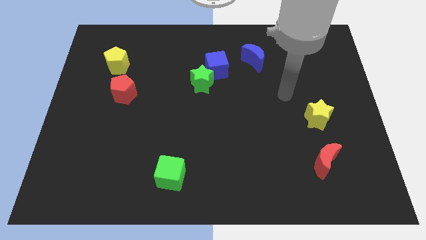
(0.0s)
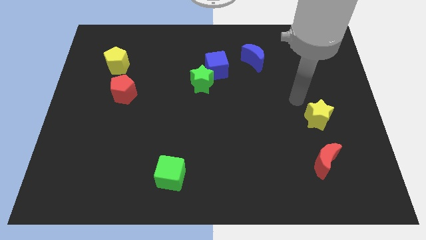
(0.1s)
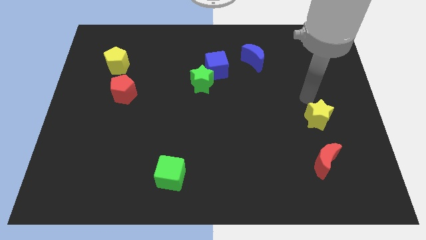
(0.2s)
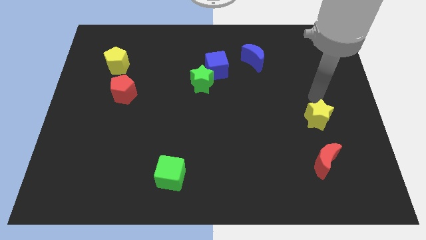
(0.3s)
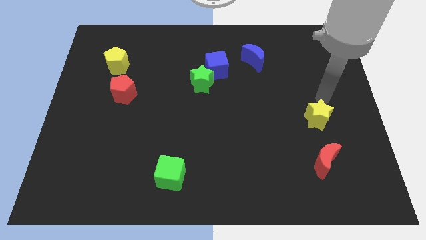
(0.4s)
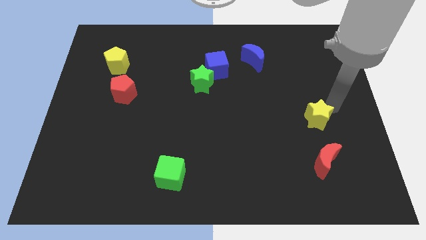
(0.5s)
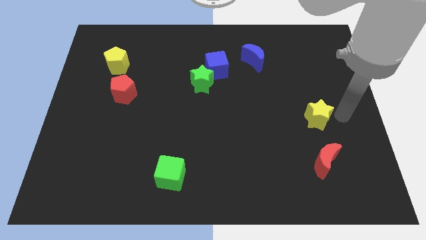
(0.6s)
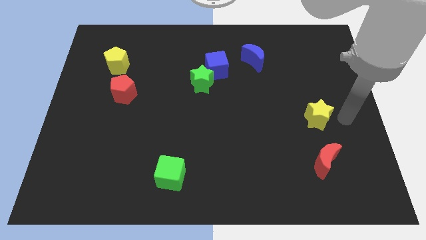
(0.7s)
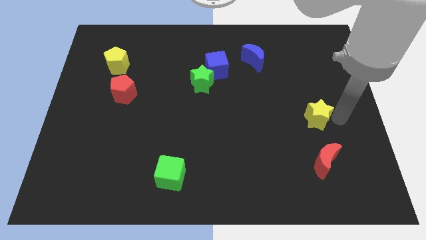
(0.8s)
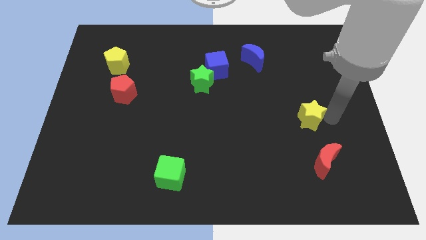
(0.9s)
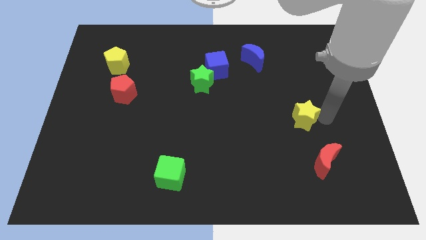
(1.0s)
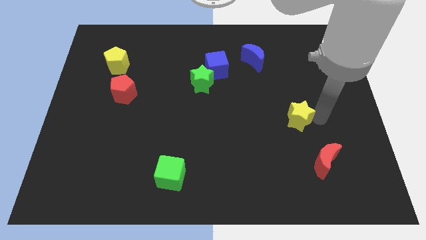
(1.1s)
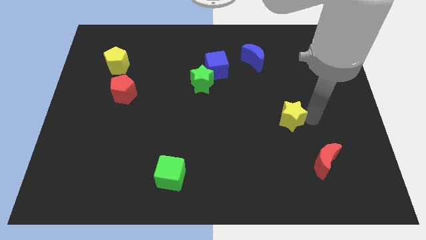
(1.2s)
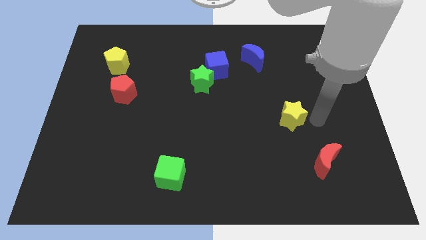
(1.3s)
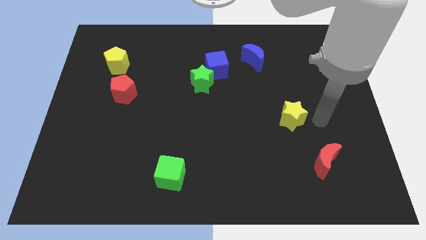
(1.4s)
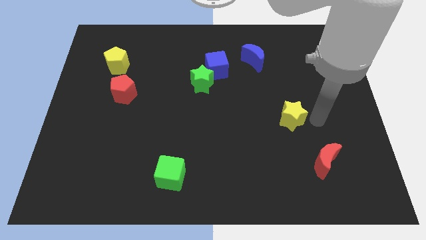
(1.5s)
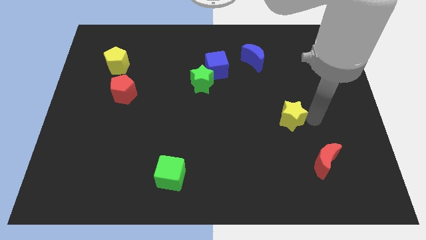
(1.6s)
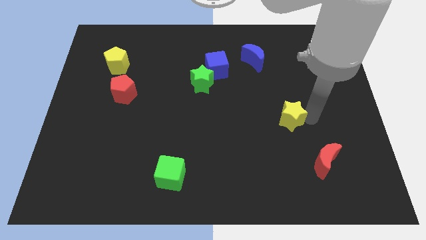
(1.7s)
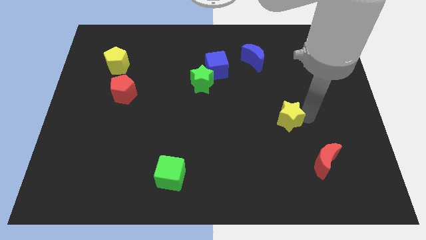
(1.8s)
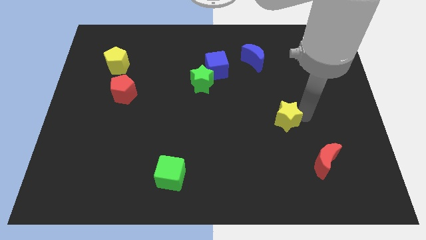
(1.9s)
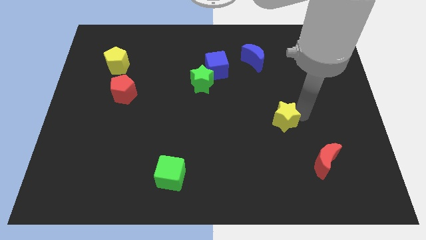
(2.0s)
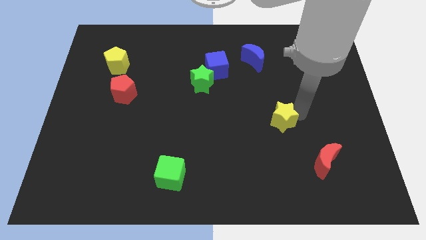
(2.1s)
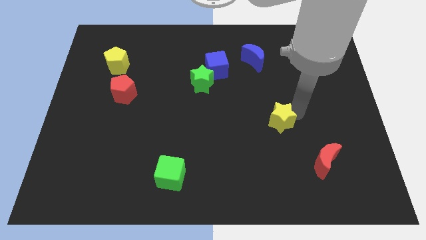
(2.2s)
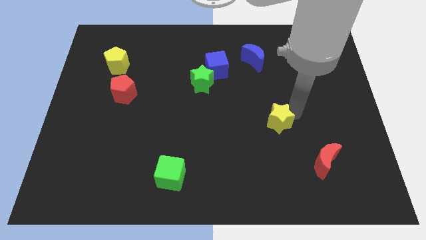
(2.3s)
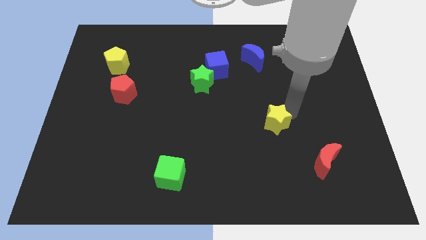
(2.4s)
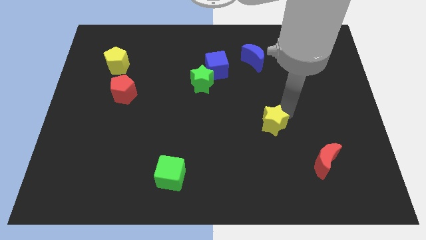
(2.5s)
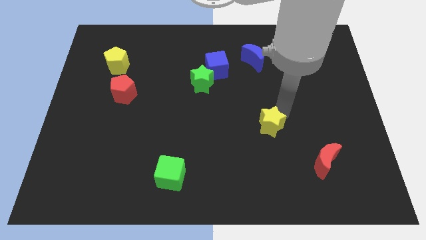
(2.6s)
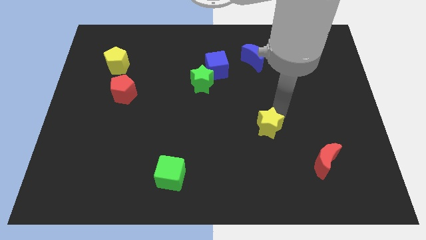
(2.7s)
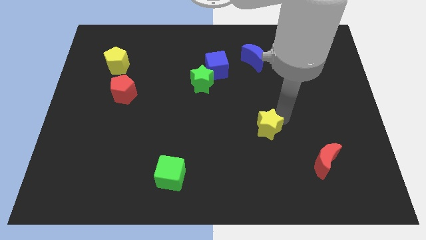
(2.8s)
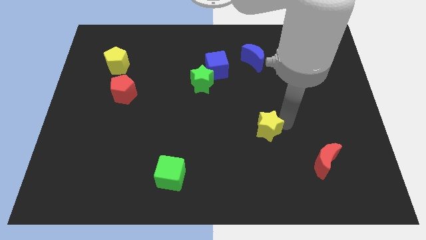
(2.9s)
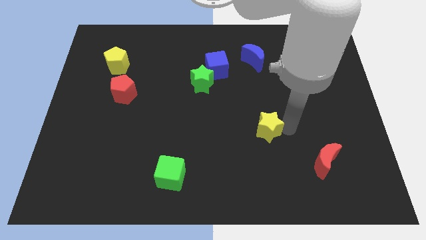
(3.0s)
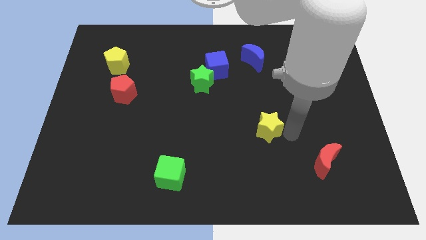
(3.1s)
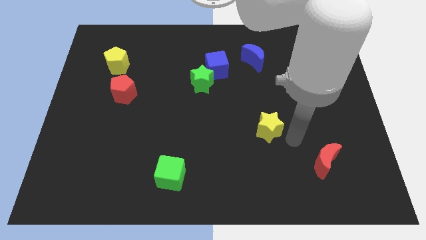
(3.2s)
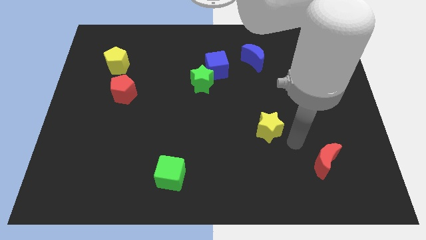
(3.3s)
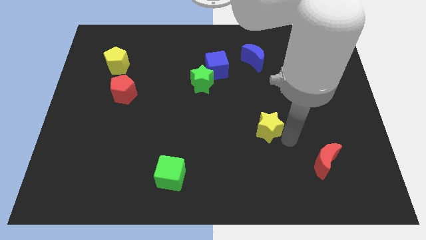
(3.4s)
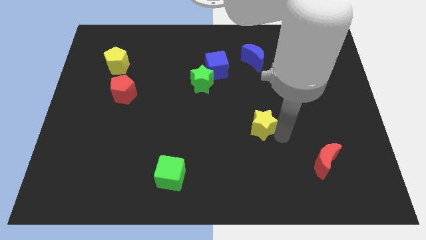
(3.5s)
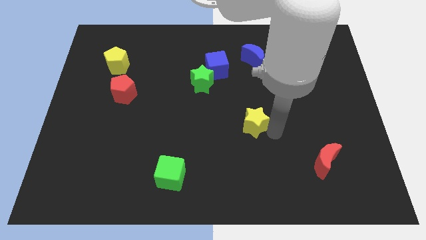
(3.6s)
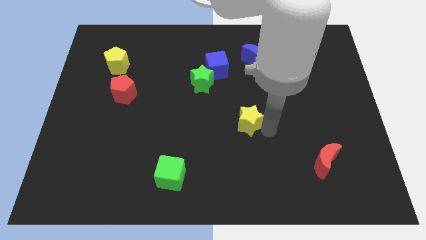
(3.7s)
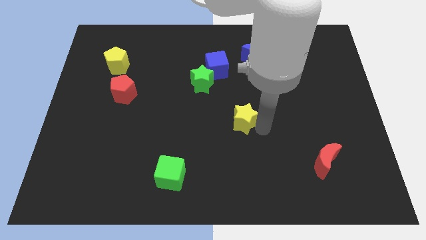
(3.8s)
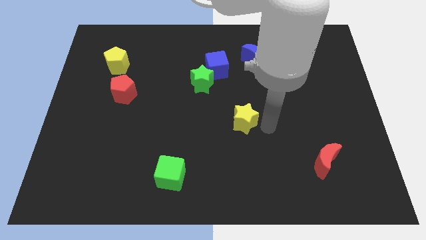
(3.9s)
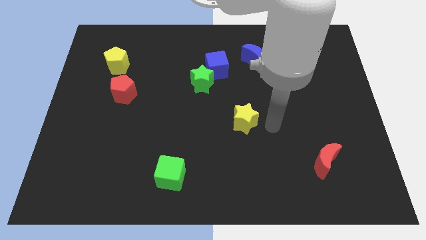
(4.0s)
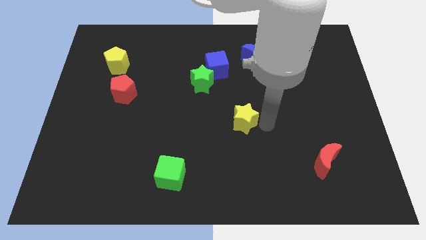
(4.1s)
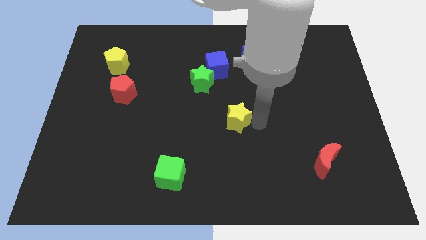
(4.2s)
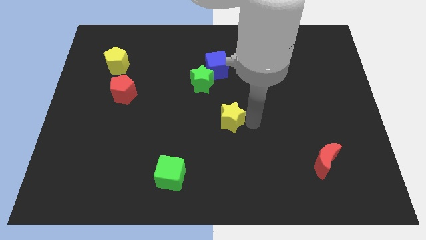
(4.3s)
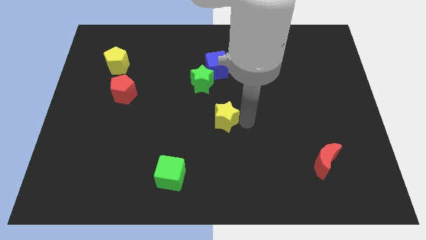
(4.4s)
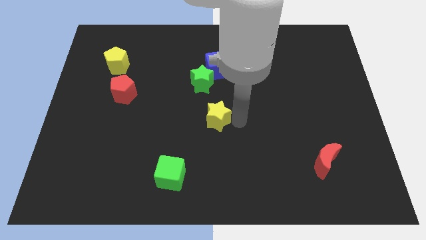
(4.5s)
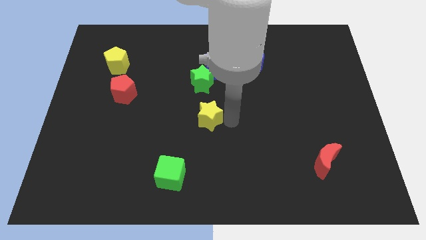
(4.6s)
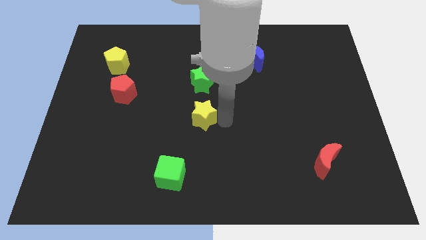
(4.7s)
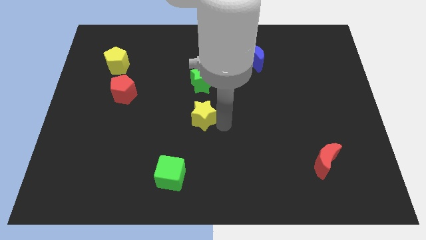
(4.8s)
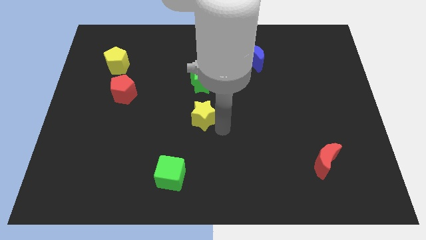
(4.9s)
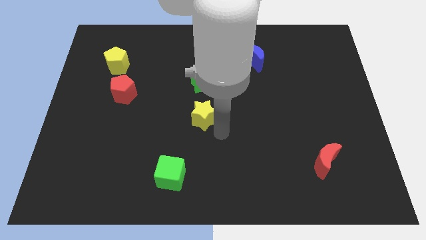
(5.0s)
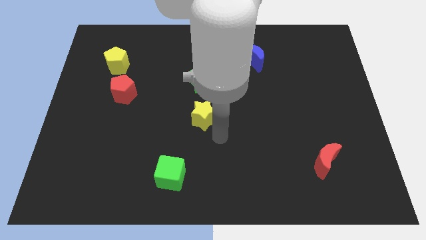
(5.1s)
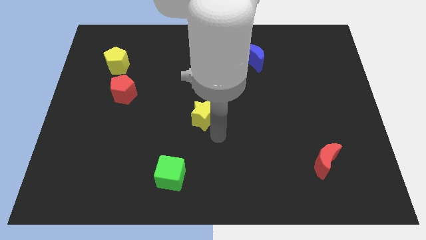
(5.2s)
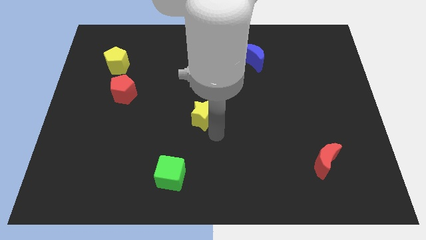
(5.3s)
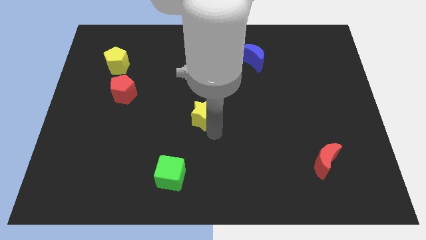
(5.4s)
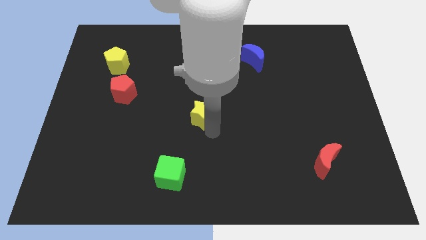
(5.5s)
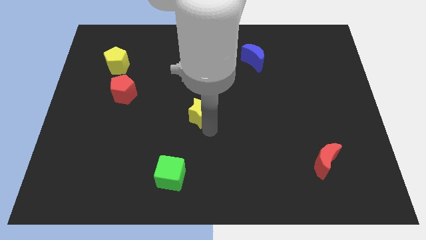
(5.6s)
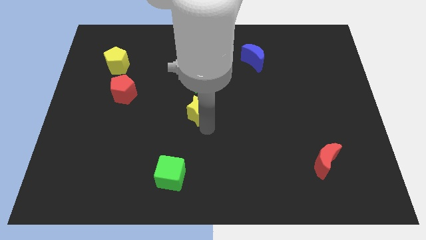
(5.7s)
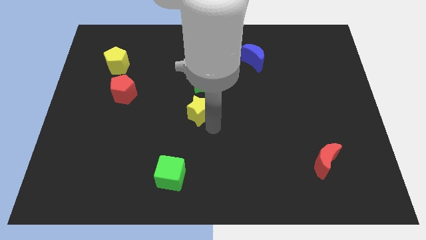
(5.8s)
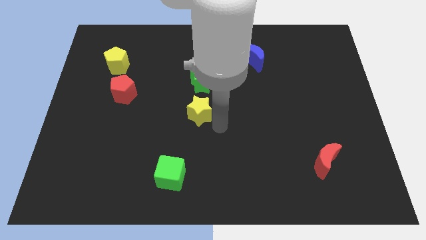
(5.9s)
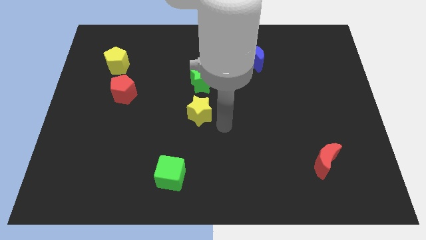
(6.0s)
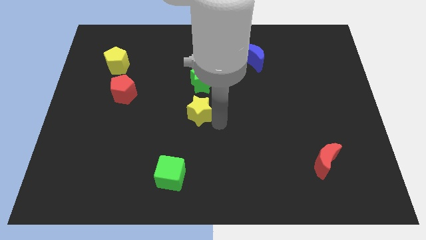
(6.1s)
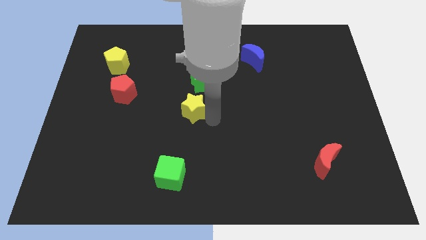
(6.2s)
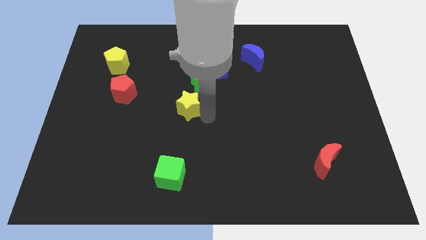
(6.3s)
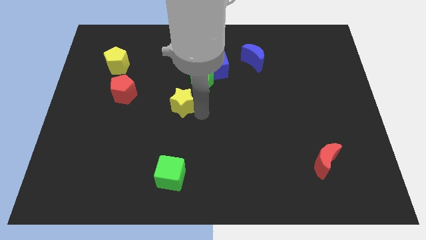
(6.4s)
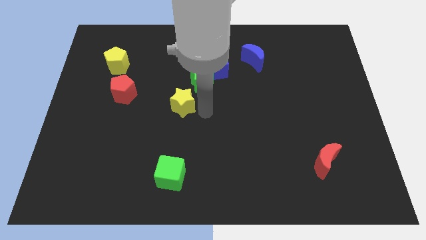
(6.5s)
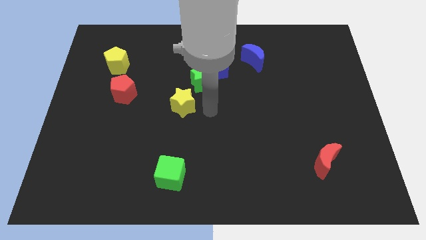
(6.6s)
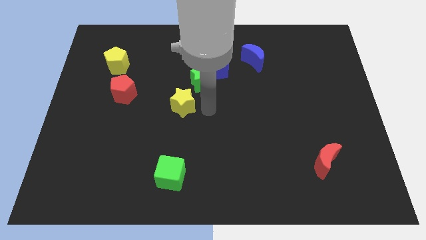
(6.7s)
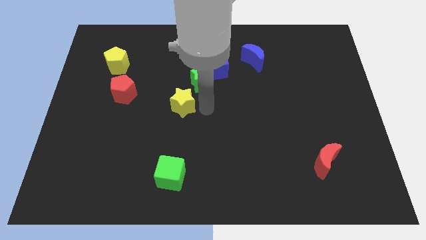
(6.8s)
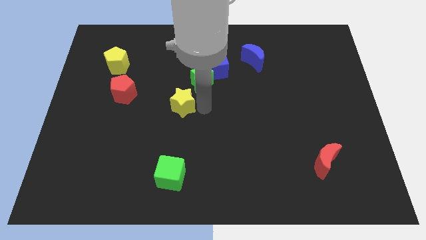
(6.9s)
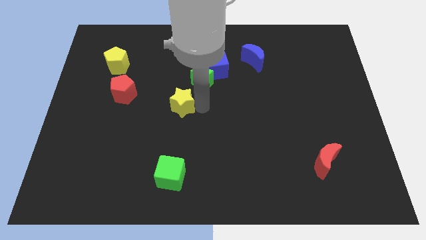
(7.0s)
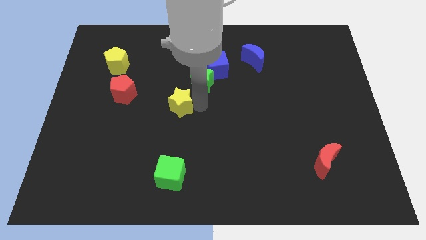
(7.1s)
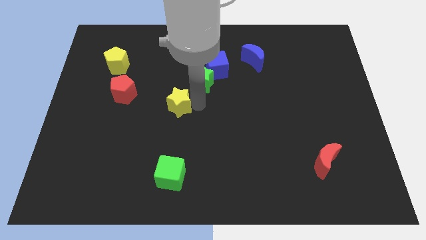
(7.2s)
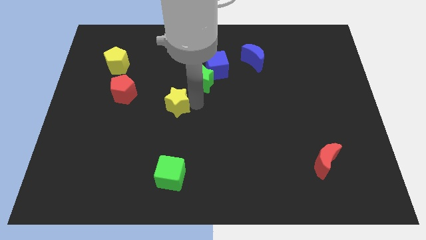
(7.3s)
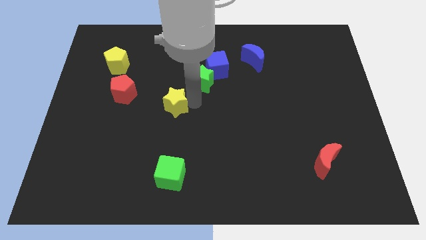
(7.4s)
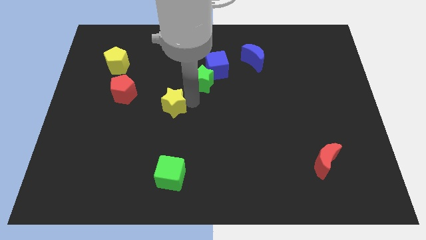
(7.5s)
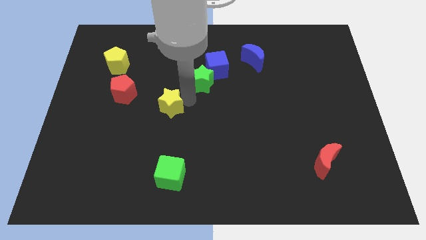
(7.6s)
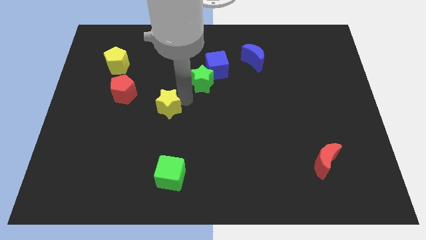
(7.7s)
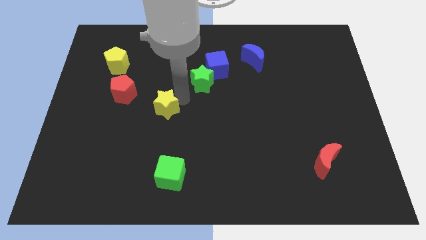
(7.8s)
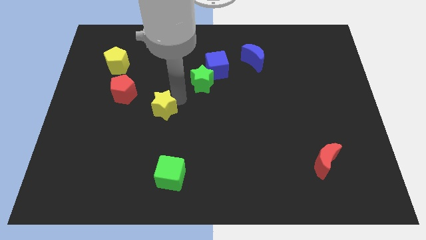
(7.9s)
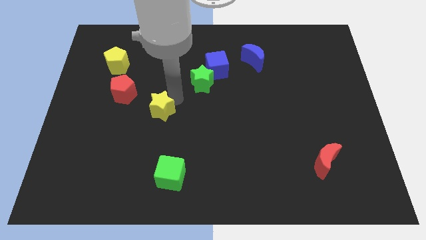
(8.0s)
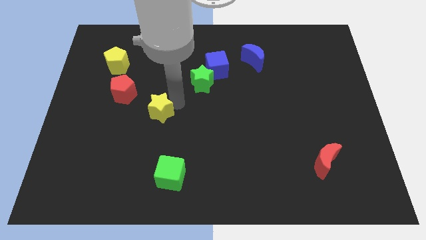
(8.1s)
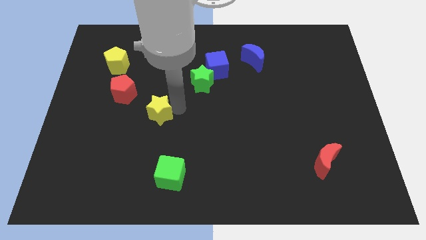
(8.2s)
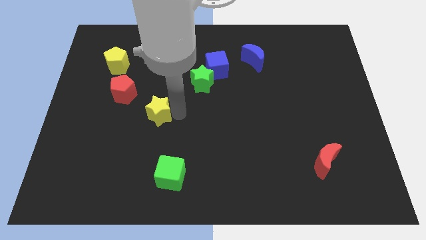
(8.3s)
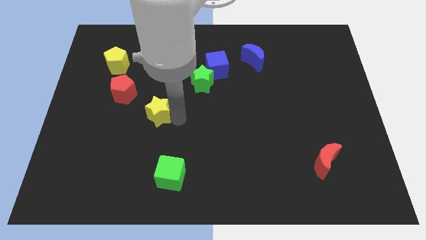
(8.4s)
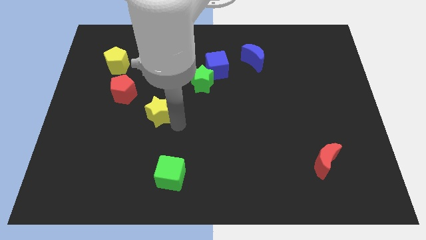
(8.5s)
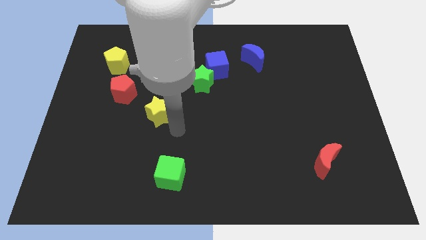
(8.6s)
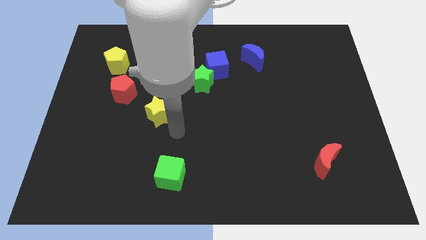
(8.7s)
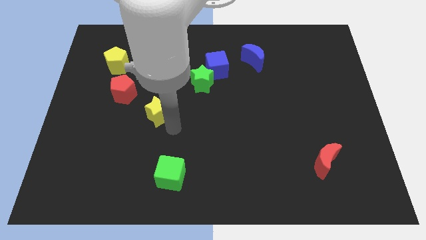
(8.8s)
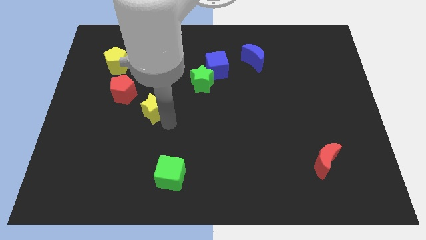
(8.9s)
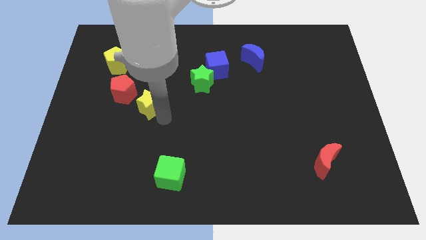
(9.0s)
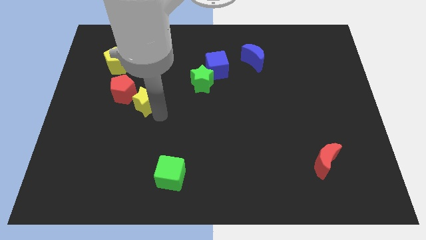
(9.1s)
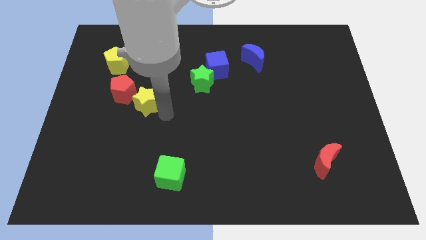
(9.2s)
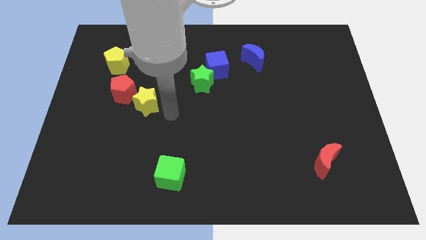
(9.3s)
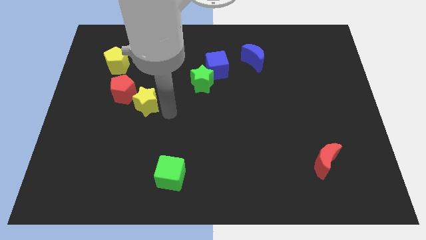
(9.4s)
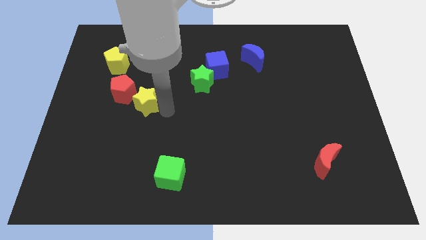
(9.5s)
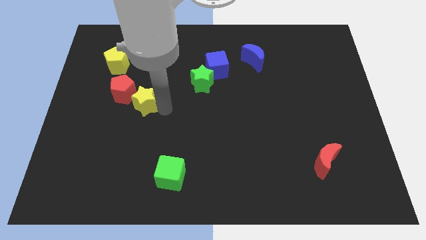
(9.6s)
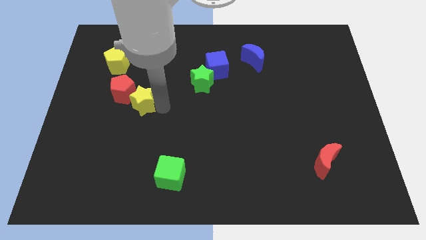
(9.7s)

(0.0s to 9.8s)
put the yellow star close to the red pentagon
